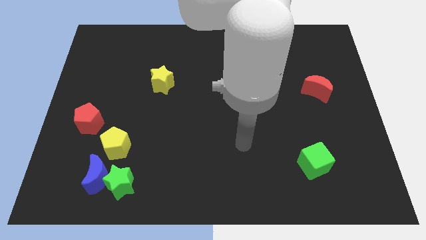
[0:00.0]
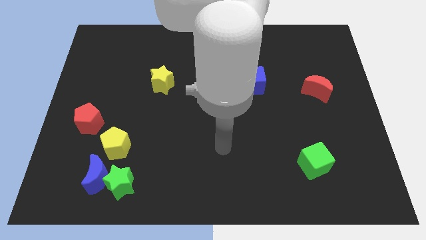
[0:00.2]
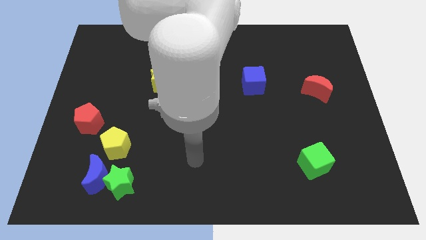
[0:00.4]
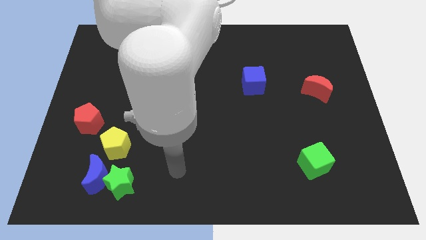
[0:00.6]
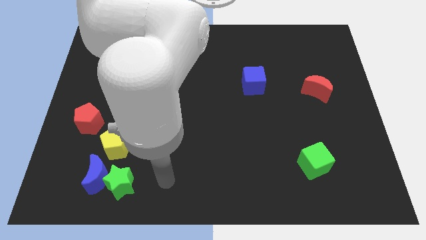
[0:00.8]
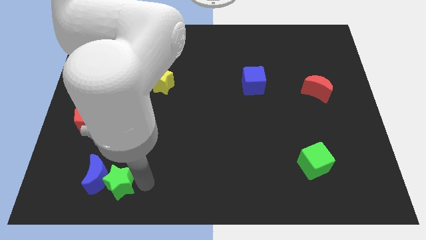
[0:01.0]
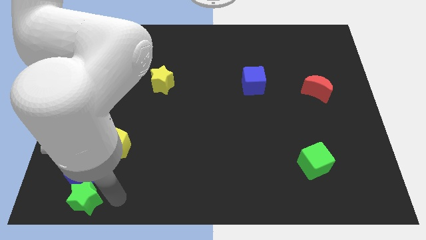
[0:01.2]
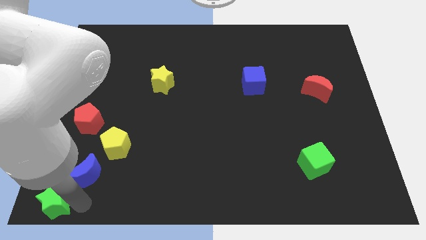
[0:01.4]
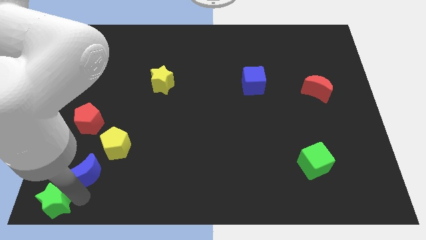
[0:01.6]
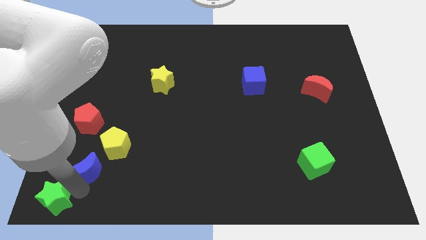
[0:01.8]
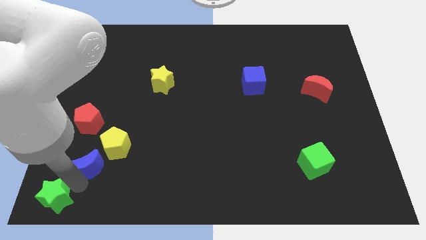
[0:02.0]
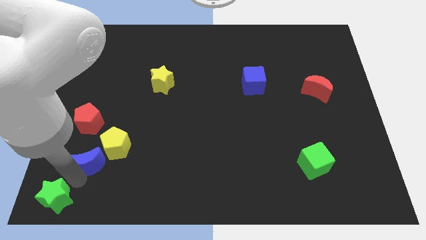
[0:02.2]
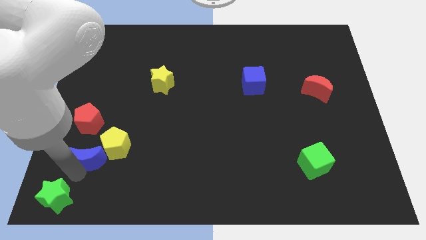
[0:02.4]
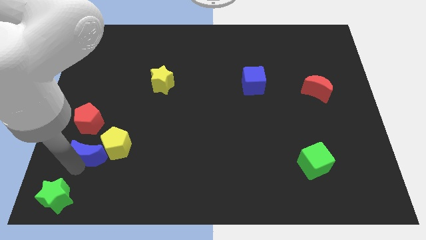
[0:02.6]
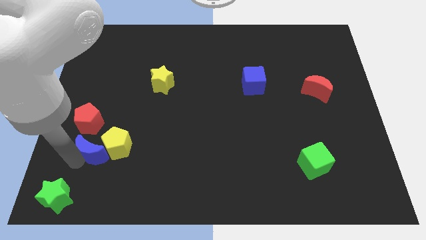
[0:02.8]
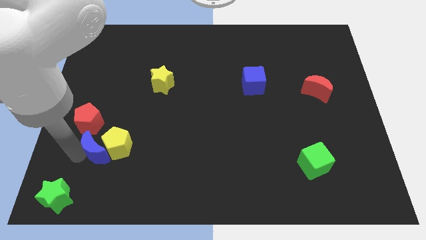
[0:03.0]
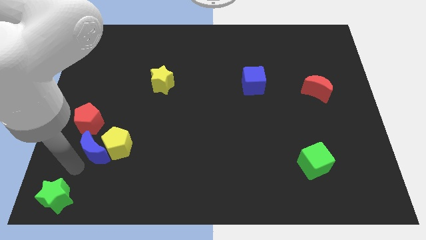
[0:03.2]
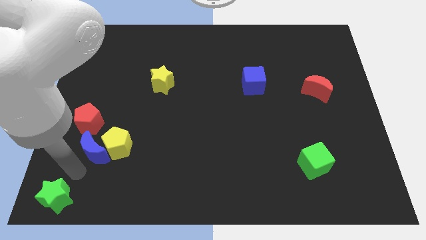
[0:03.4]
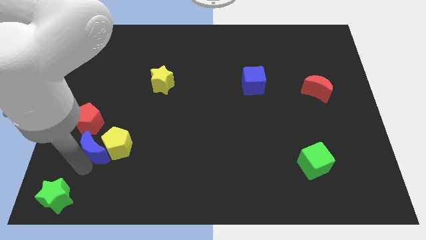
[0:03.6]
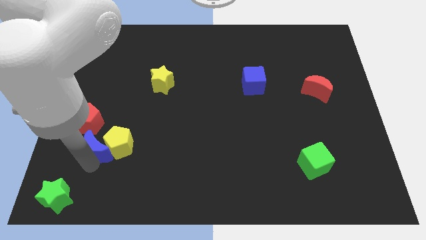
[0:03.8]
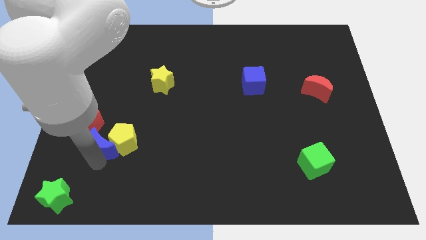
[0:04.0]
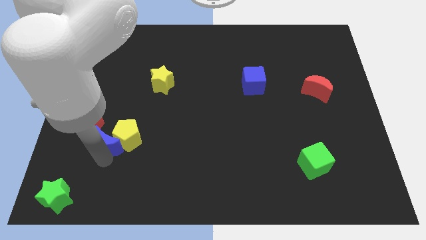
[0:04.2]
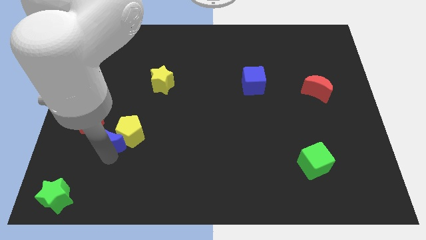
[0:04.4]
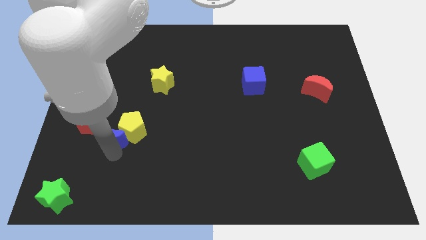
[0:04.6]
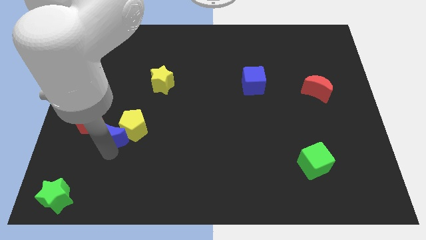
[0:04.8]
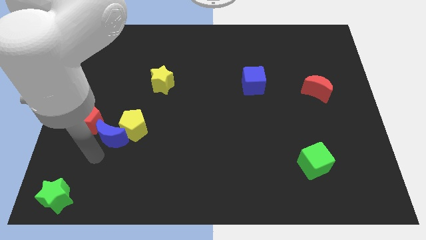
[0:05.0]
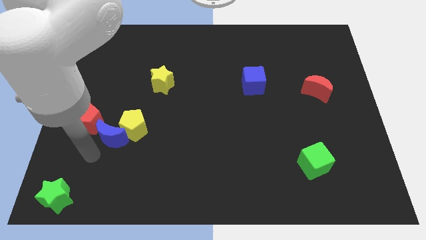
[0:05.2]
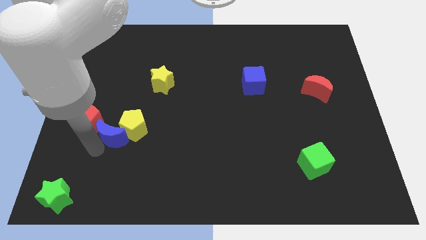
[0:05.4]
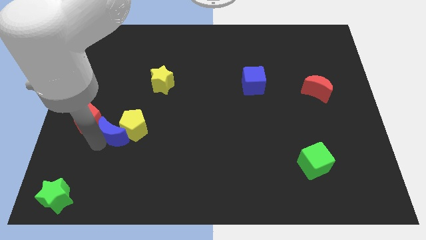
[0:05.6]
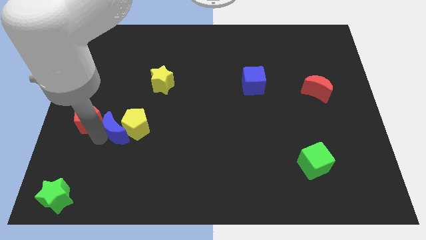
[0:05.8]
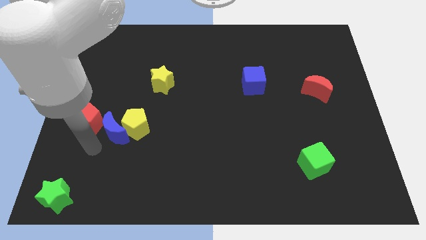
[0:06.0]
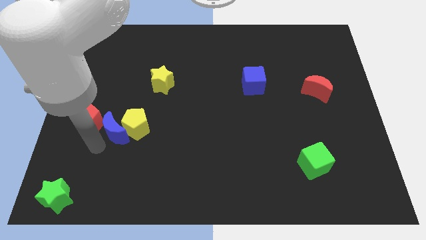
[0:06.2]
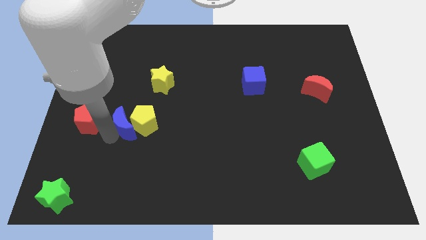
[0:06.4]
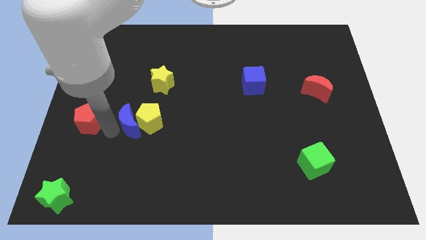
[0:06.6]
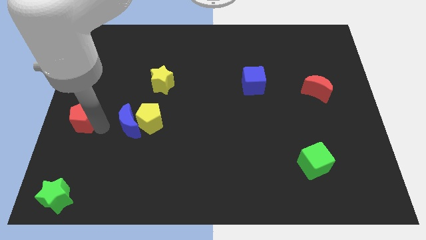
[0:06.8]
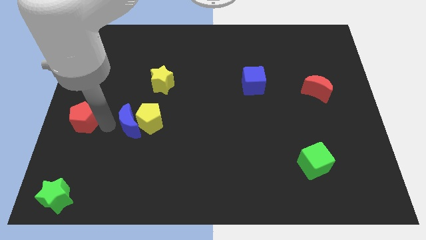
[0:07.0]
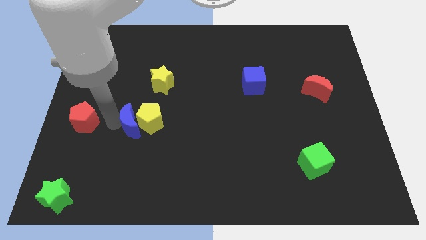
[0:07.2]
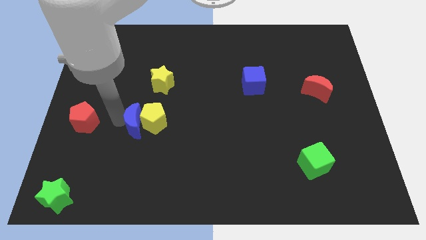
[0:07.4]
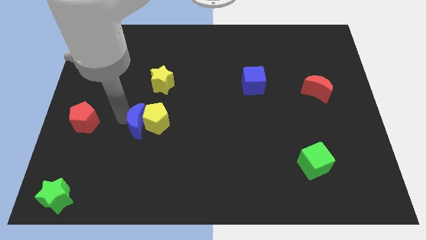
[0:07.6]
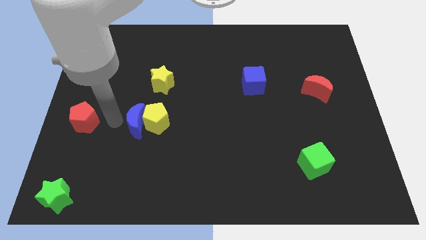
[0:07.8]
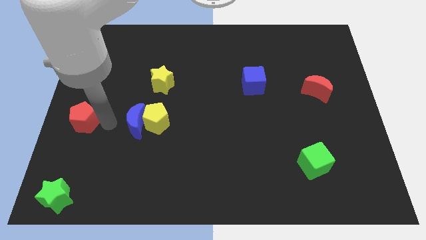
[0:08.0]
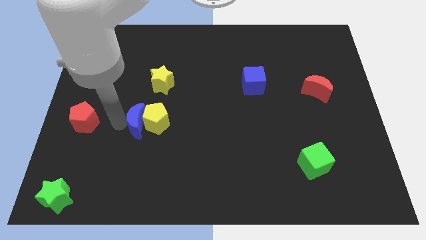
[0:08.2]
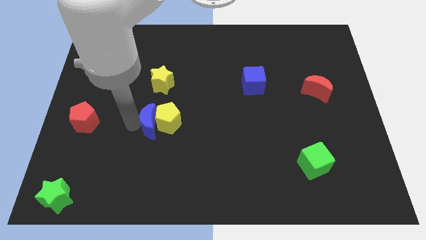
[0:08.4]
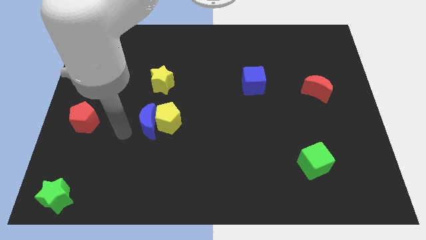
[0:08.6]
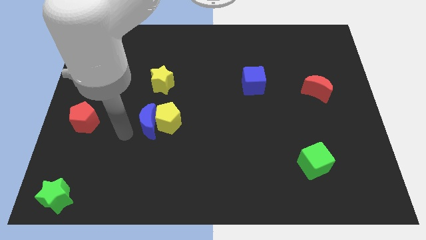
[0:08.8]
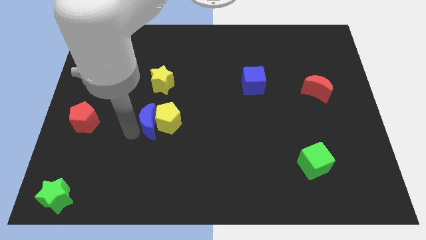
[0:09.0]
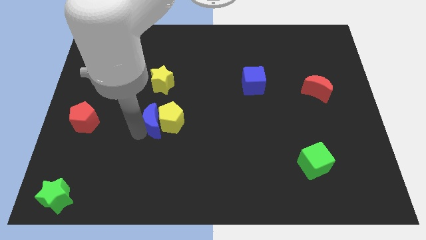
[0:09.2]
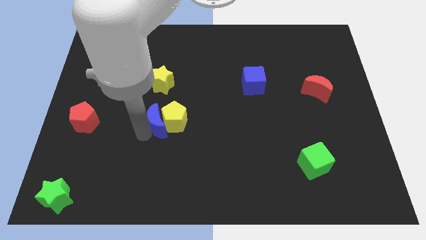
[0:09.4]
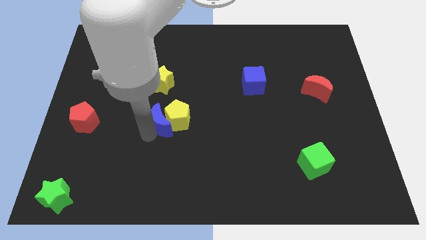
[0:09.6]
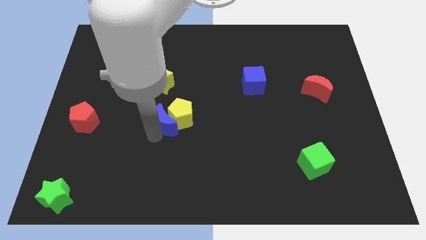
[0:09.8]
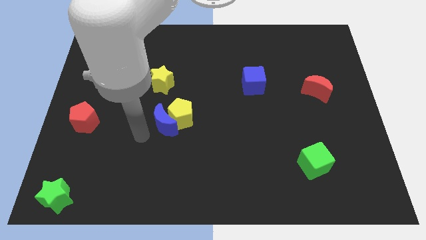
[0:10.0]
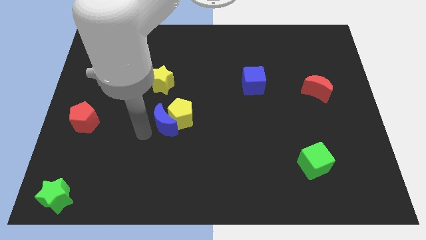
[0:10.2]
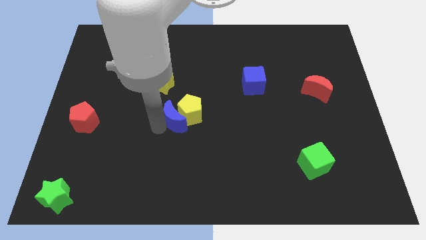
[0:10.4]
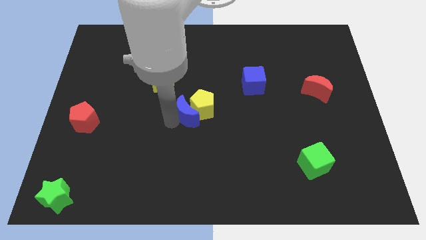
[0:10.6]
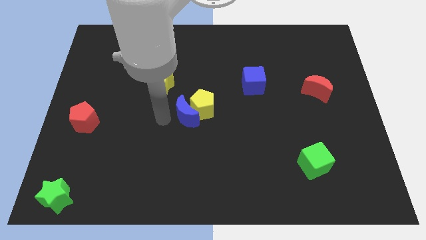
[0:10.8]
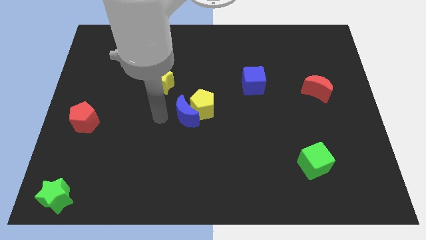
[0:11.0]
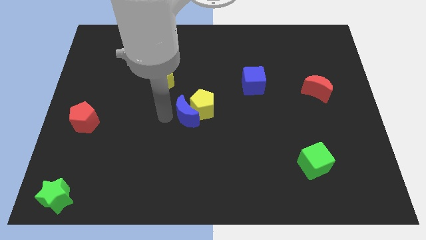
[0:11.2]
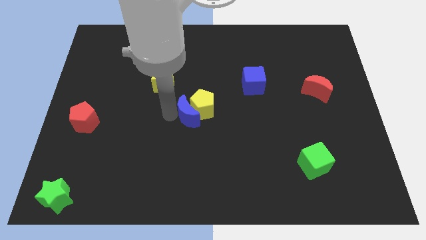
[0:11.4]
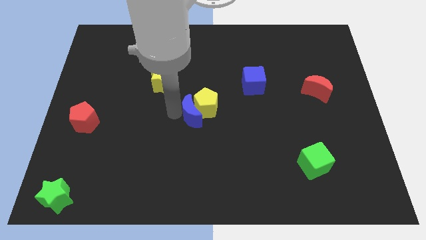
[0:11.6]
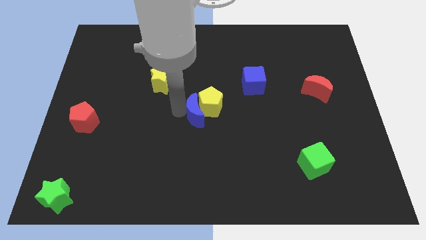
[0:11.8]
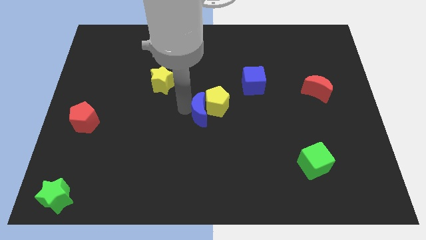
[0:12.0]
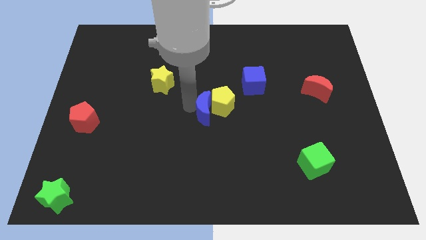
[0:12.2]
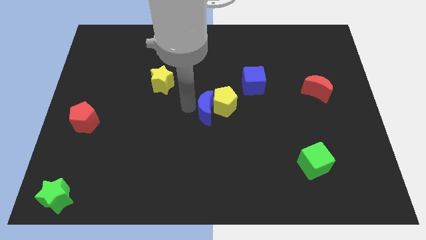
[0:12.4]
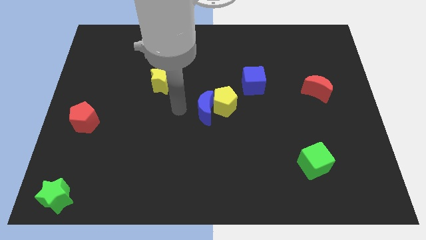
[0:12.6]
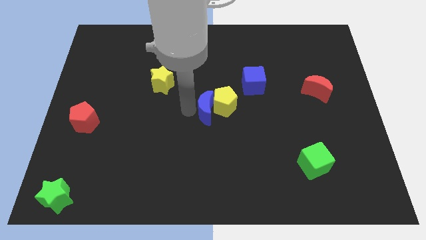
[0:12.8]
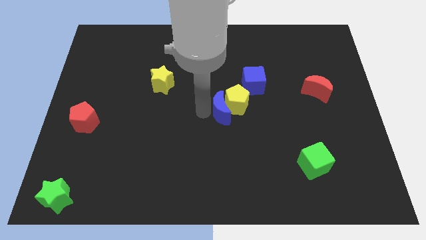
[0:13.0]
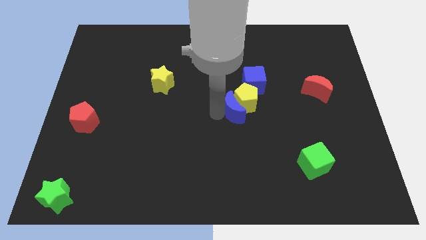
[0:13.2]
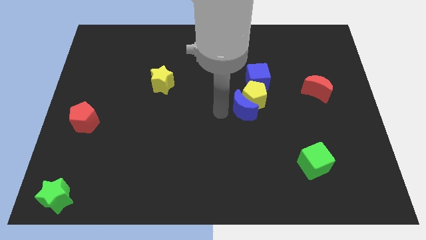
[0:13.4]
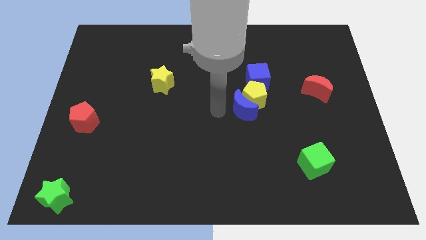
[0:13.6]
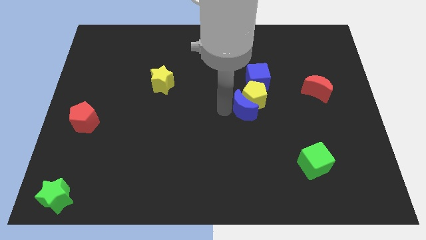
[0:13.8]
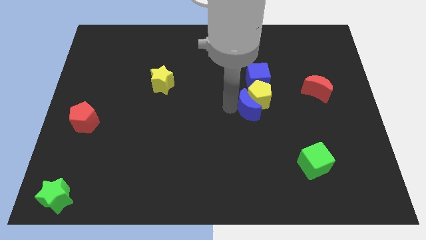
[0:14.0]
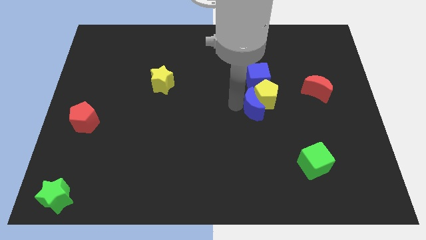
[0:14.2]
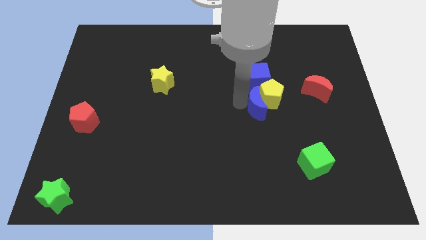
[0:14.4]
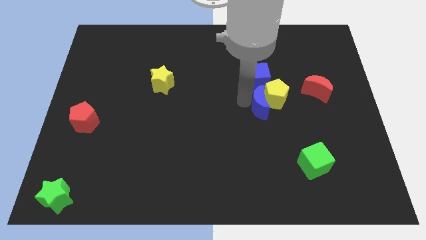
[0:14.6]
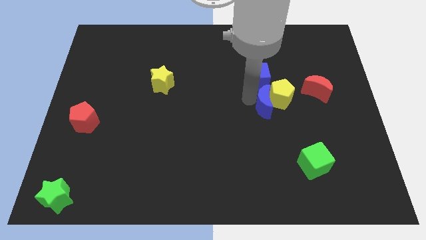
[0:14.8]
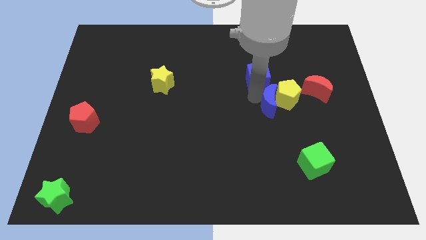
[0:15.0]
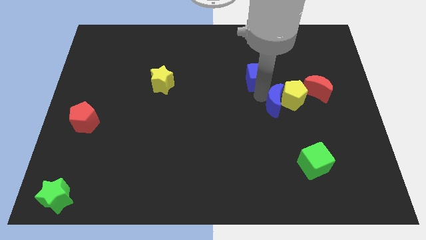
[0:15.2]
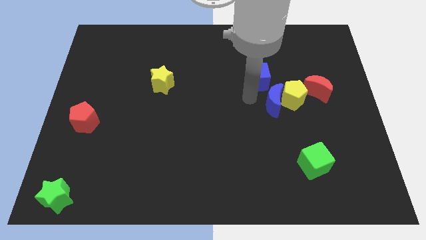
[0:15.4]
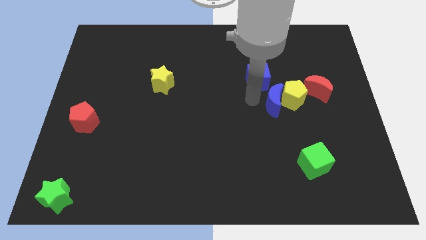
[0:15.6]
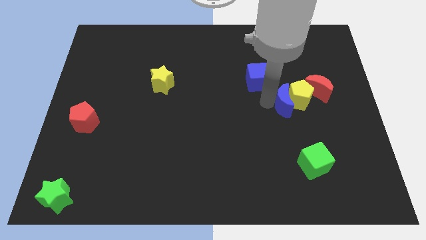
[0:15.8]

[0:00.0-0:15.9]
slide the blue moon to the bottom left side of the red moon
